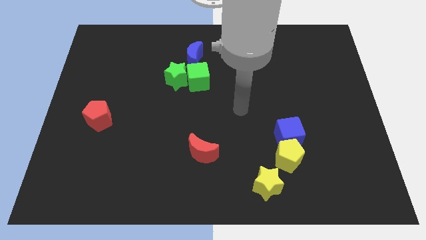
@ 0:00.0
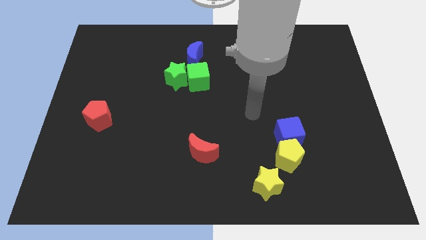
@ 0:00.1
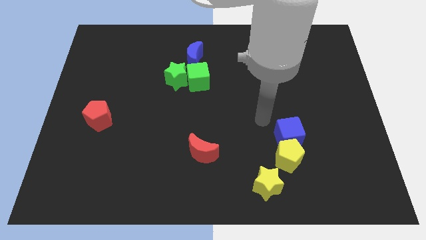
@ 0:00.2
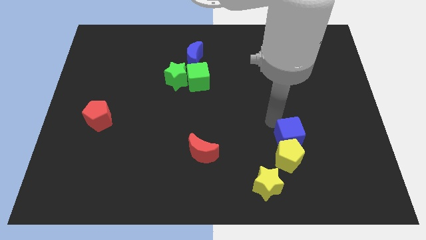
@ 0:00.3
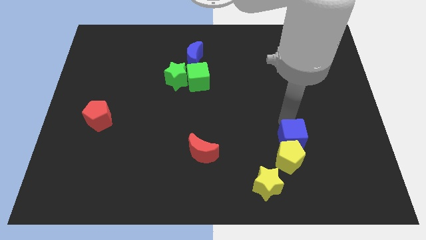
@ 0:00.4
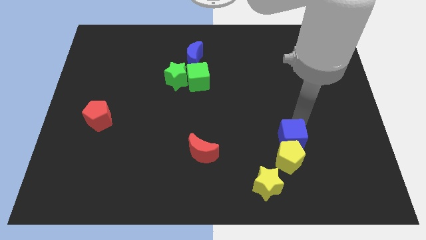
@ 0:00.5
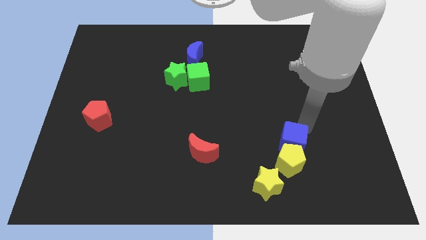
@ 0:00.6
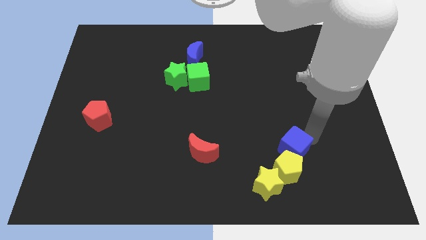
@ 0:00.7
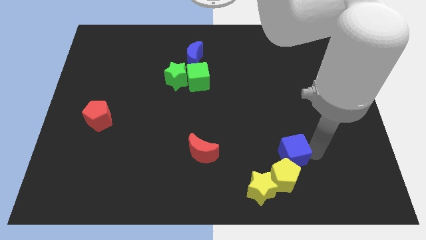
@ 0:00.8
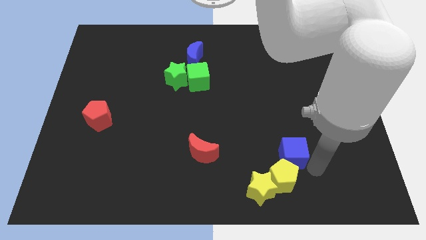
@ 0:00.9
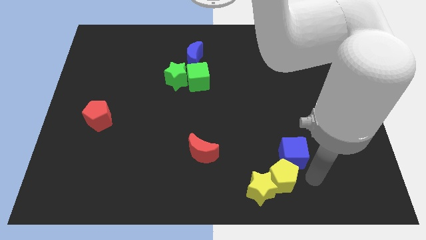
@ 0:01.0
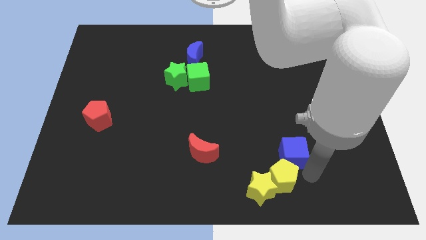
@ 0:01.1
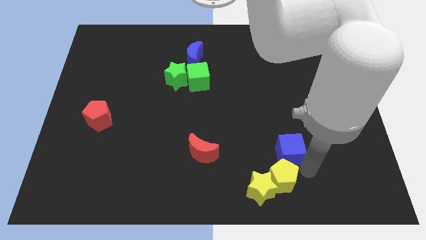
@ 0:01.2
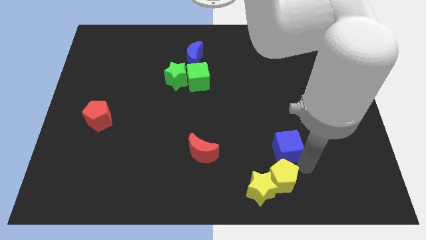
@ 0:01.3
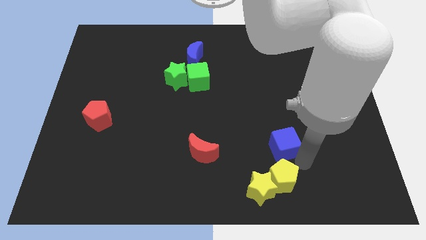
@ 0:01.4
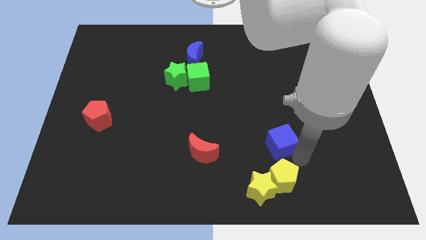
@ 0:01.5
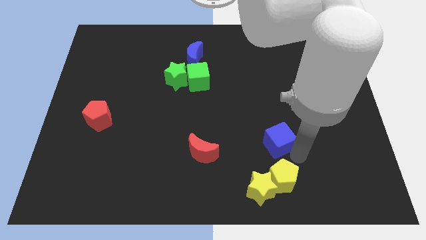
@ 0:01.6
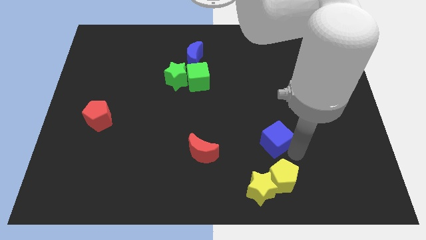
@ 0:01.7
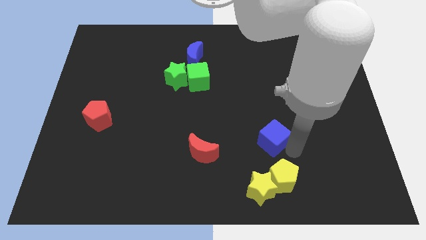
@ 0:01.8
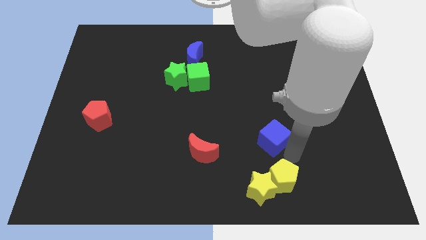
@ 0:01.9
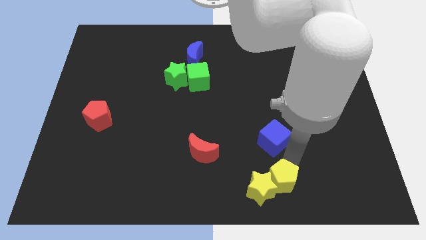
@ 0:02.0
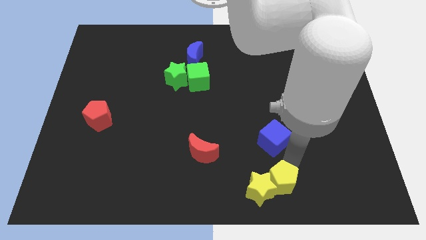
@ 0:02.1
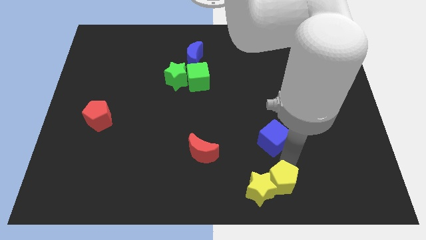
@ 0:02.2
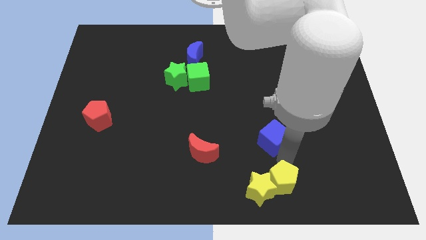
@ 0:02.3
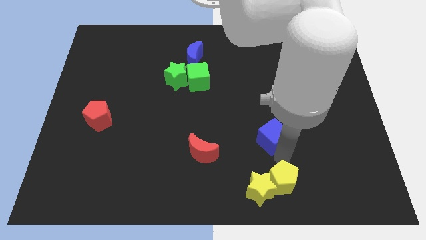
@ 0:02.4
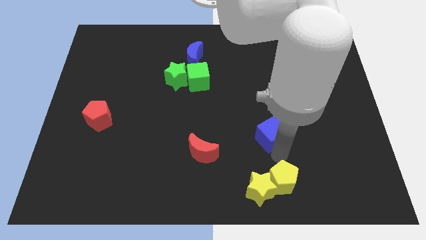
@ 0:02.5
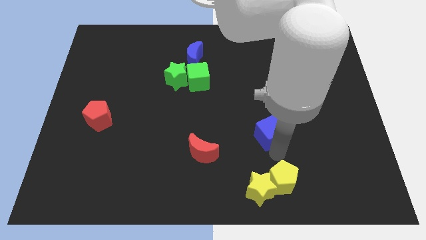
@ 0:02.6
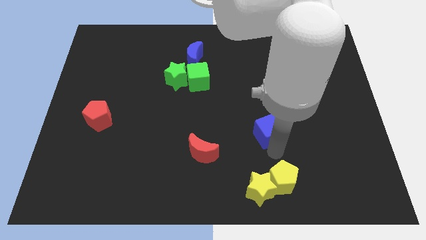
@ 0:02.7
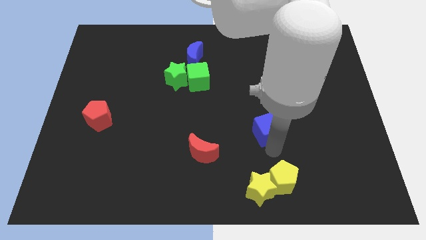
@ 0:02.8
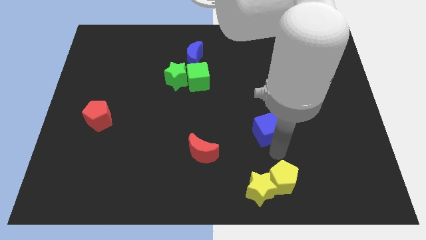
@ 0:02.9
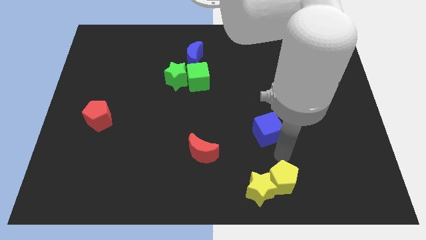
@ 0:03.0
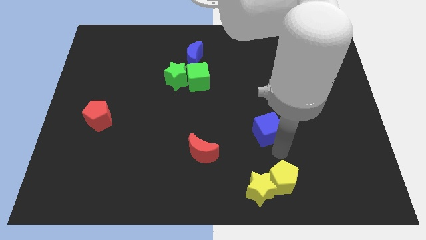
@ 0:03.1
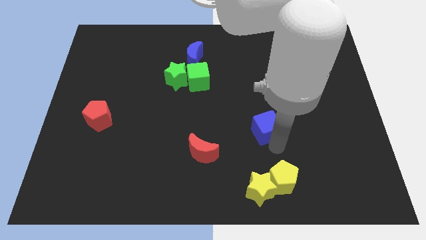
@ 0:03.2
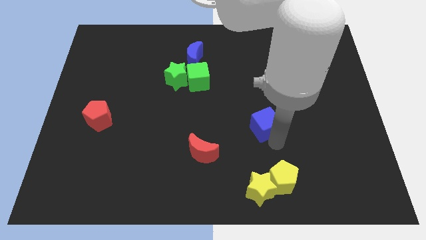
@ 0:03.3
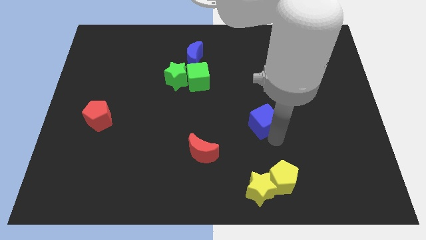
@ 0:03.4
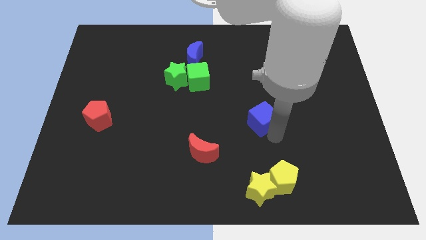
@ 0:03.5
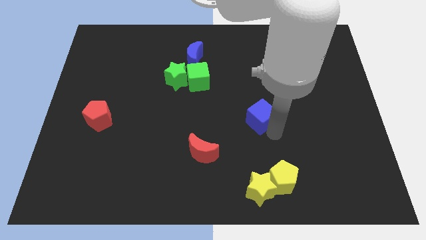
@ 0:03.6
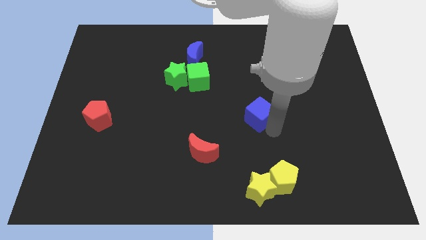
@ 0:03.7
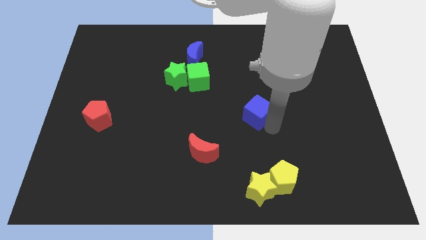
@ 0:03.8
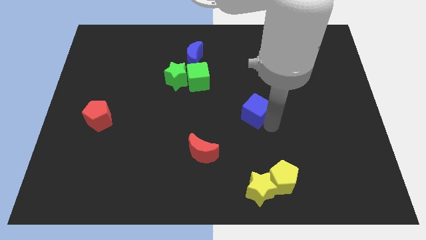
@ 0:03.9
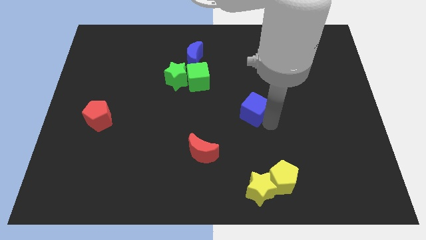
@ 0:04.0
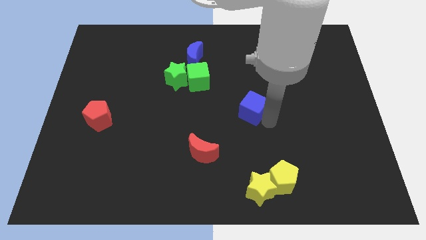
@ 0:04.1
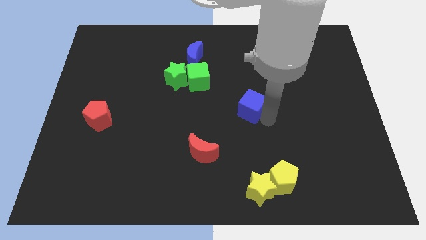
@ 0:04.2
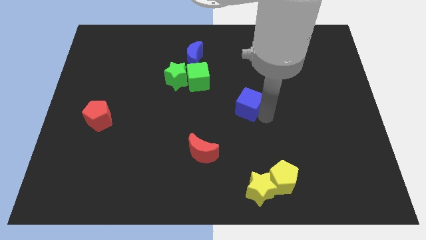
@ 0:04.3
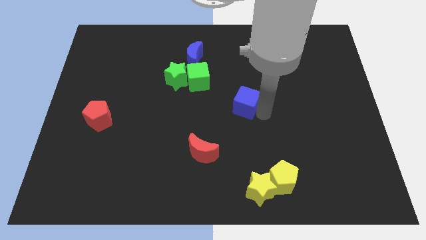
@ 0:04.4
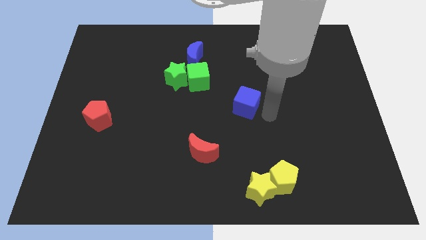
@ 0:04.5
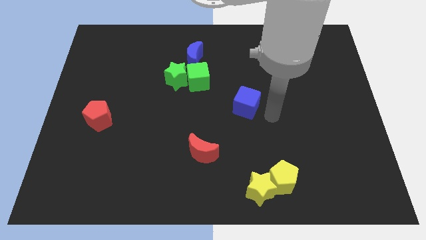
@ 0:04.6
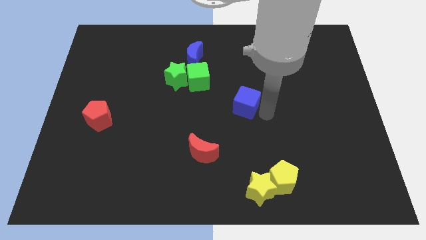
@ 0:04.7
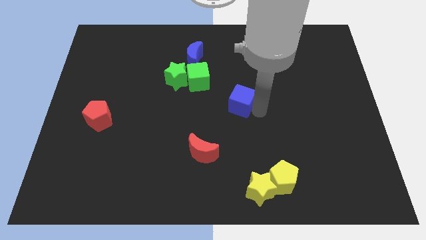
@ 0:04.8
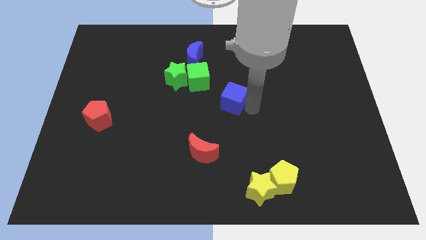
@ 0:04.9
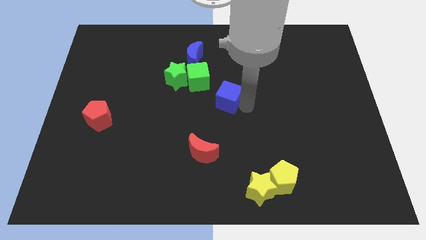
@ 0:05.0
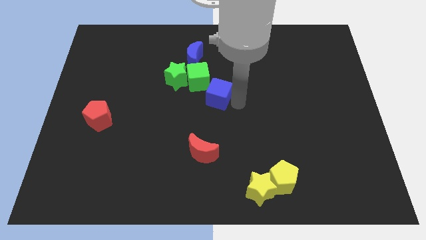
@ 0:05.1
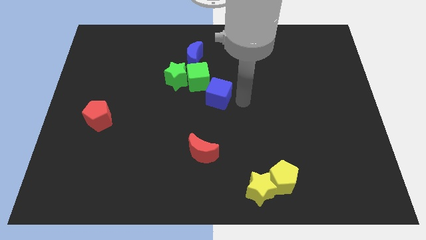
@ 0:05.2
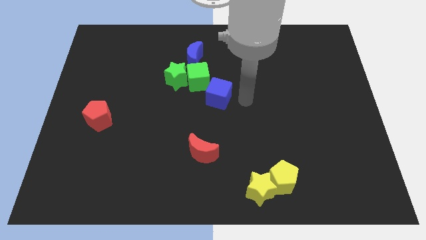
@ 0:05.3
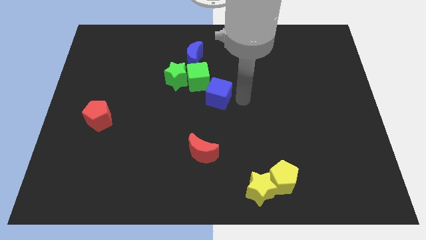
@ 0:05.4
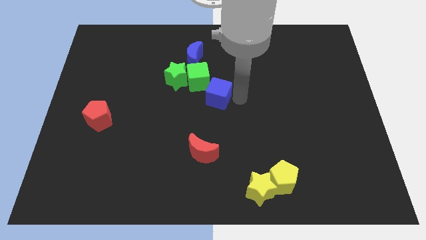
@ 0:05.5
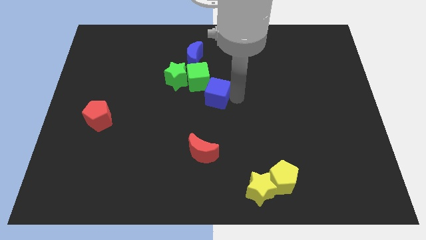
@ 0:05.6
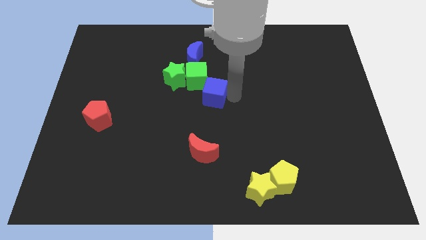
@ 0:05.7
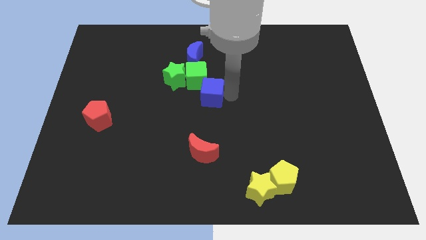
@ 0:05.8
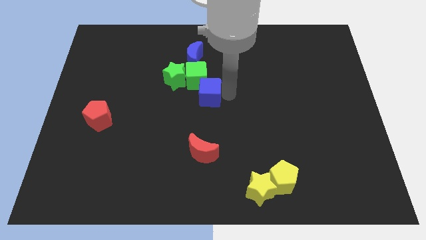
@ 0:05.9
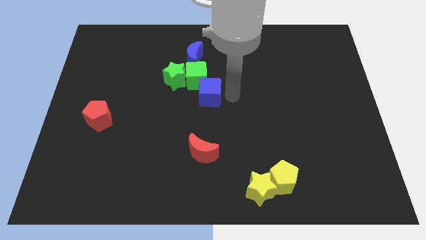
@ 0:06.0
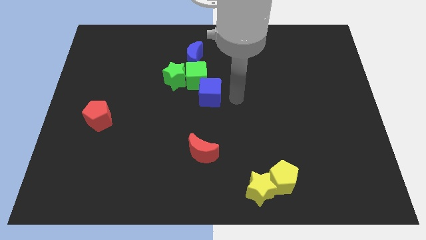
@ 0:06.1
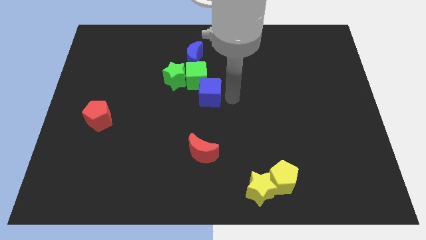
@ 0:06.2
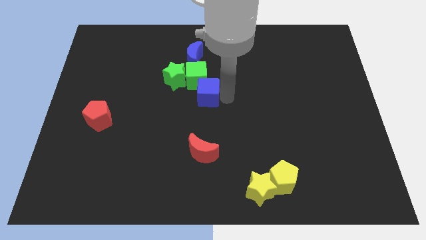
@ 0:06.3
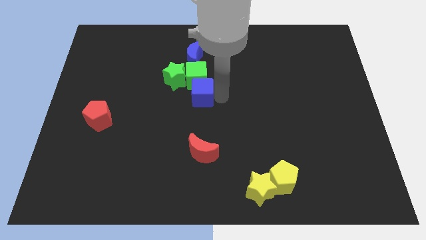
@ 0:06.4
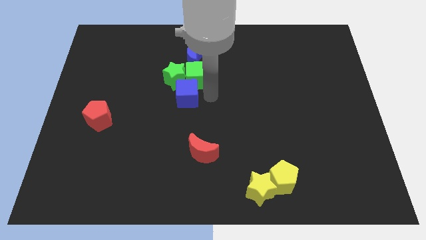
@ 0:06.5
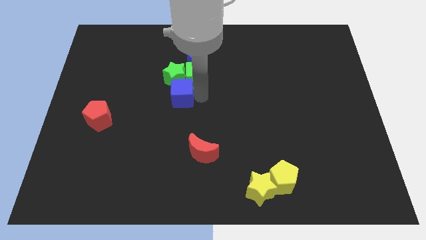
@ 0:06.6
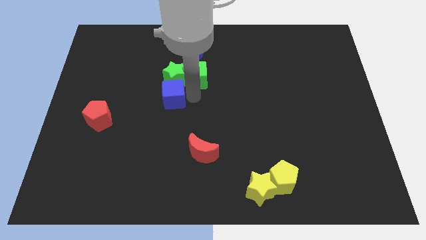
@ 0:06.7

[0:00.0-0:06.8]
move the blue cube diagonally down and to the left of the green star

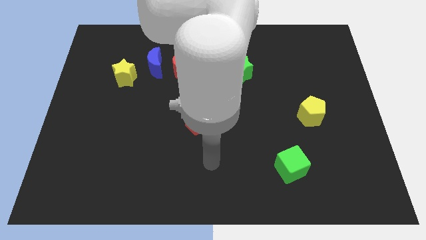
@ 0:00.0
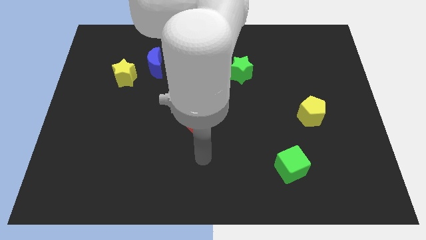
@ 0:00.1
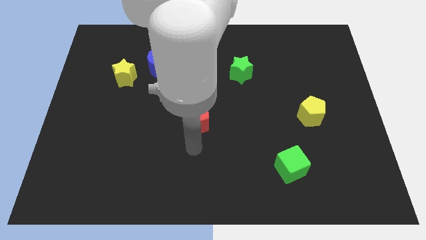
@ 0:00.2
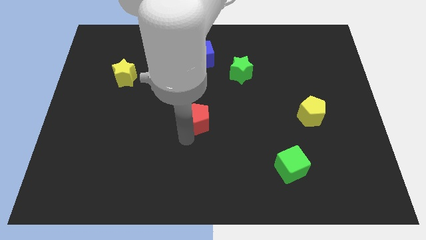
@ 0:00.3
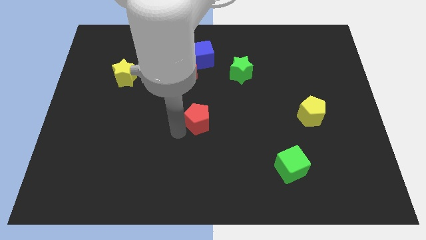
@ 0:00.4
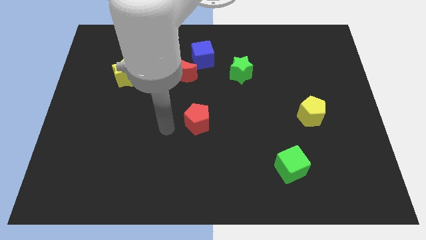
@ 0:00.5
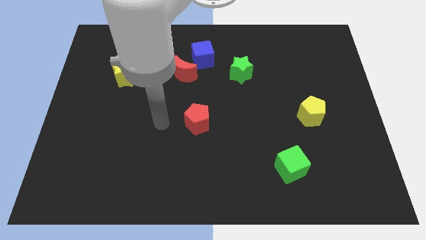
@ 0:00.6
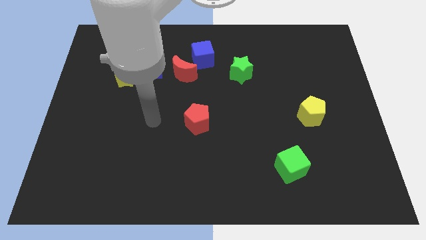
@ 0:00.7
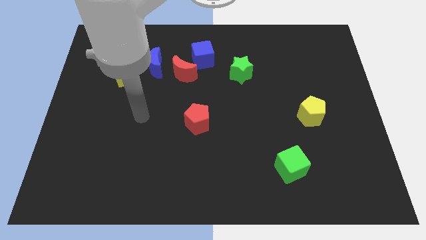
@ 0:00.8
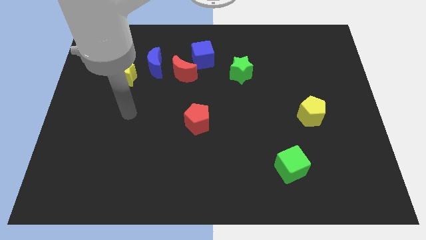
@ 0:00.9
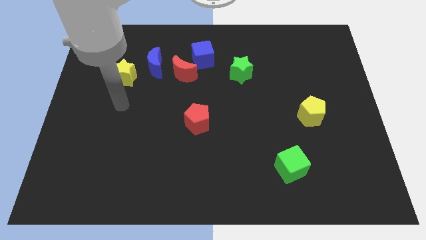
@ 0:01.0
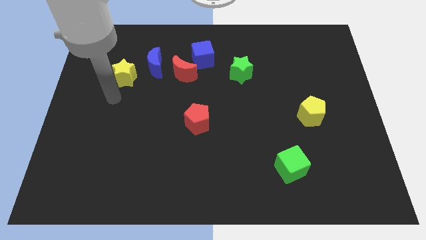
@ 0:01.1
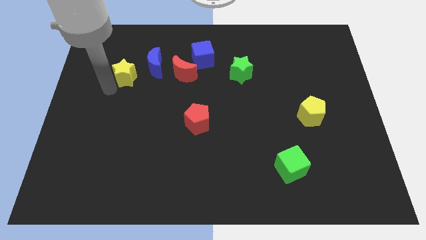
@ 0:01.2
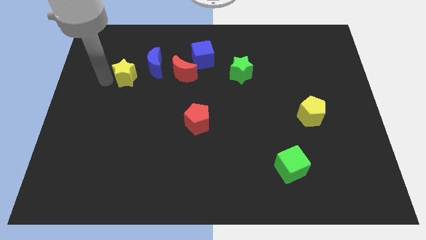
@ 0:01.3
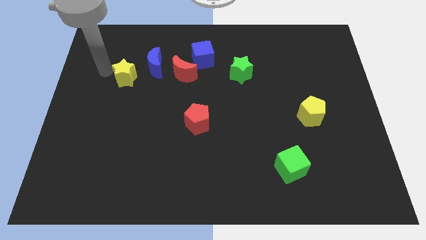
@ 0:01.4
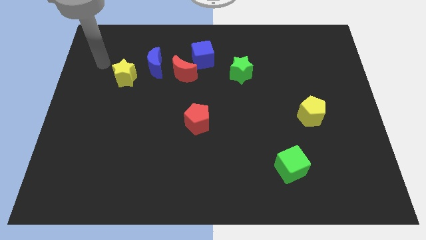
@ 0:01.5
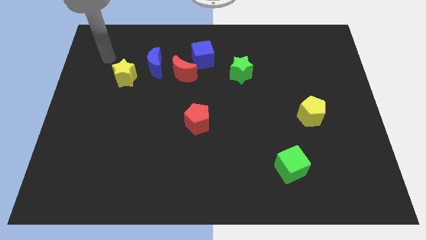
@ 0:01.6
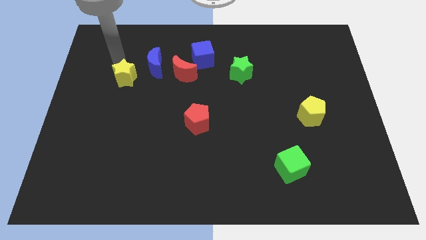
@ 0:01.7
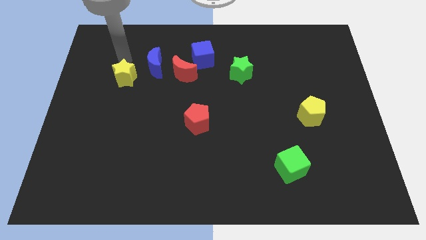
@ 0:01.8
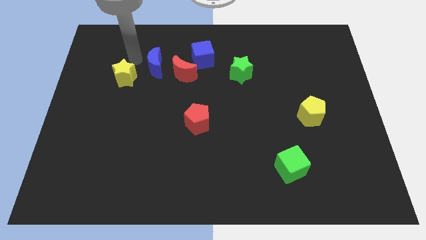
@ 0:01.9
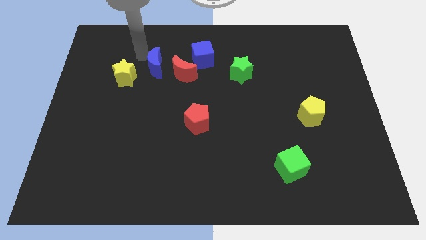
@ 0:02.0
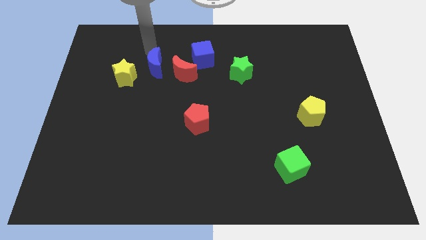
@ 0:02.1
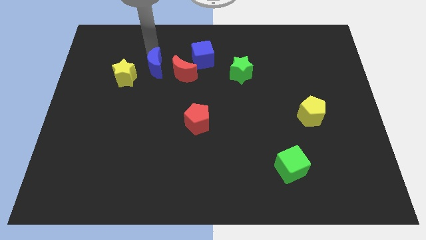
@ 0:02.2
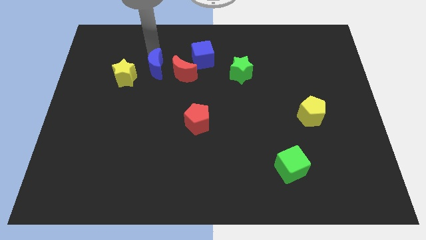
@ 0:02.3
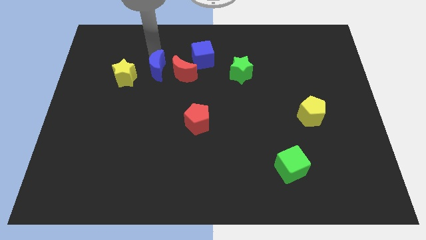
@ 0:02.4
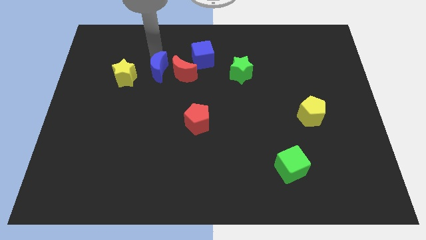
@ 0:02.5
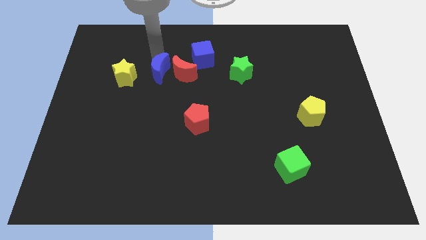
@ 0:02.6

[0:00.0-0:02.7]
put the blue moon to the bottom left of the red moon
